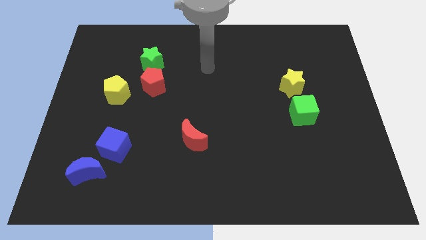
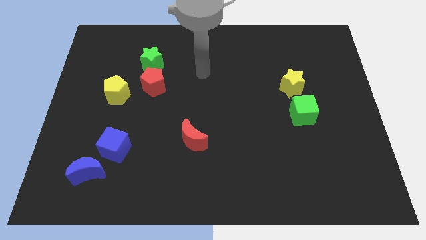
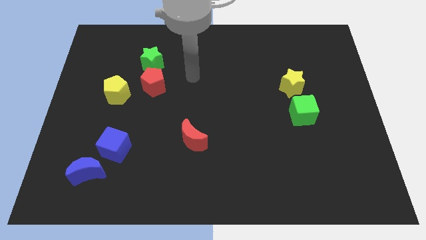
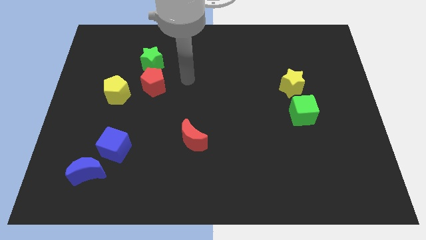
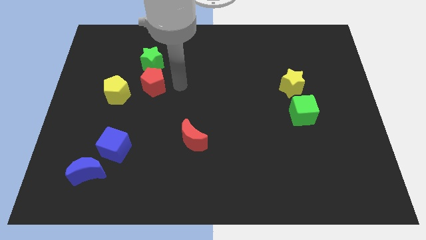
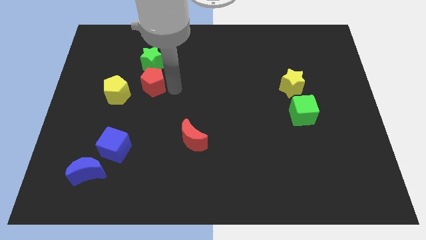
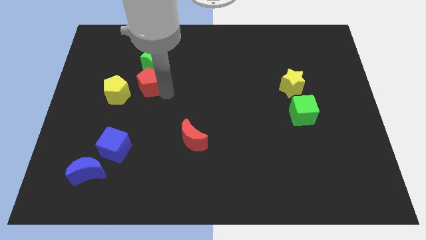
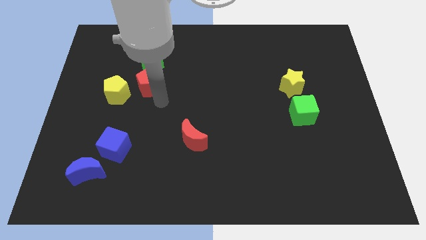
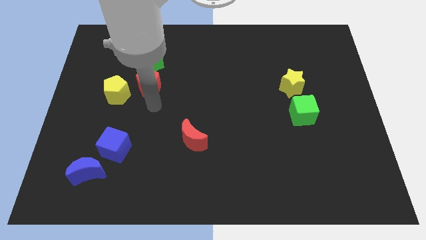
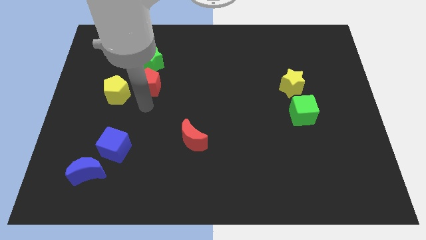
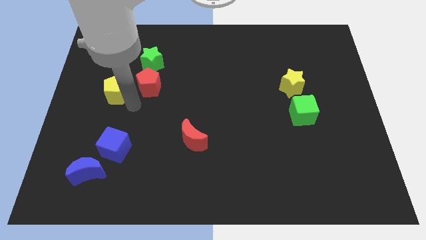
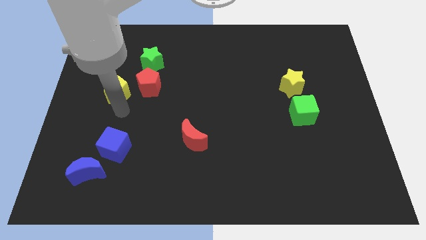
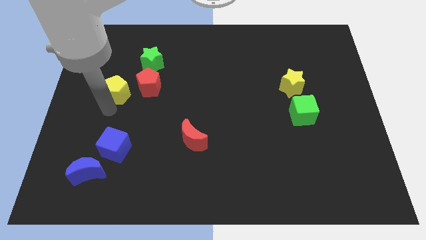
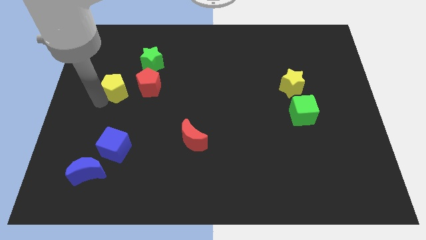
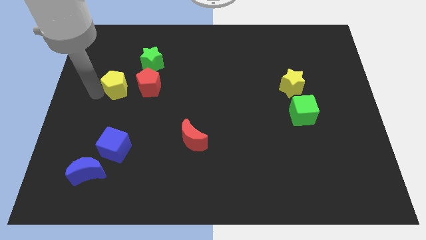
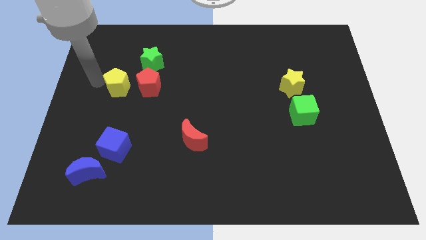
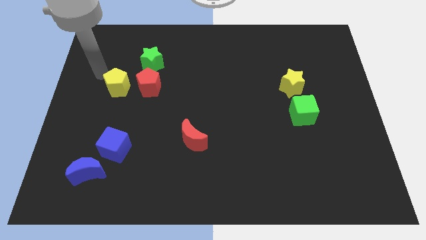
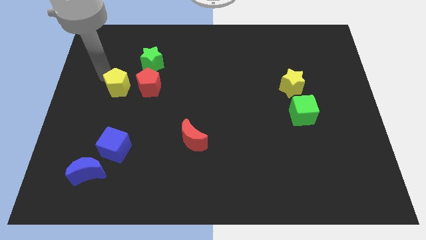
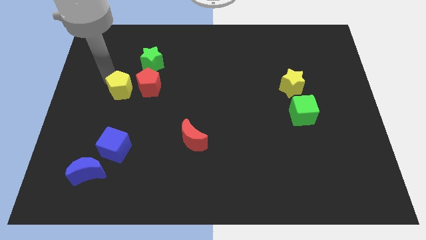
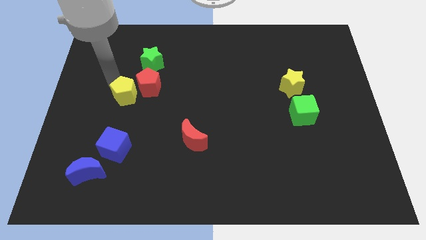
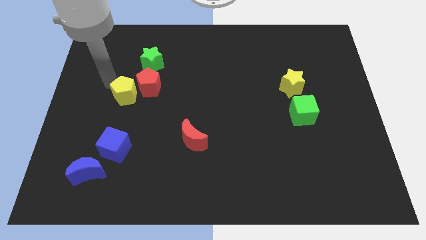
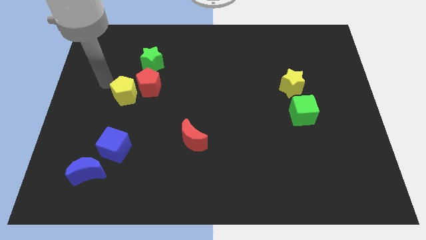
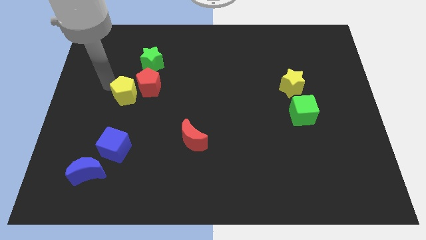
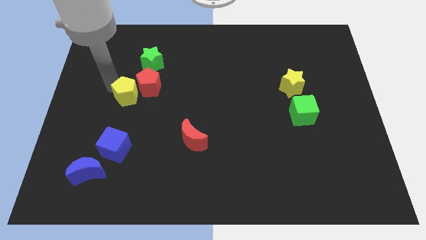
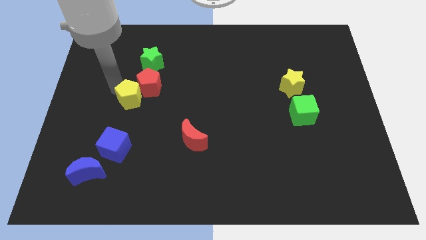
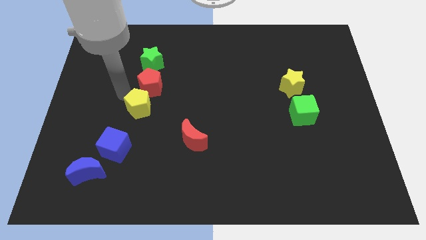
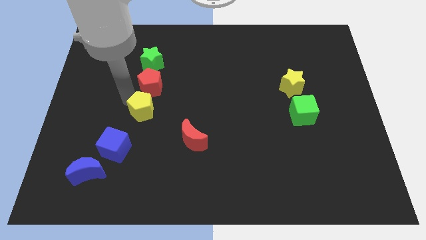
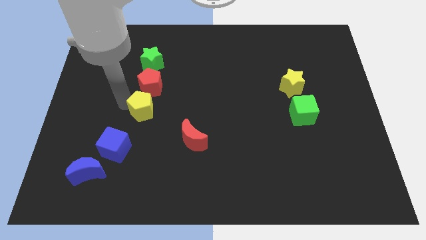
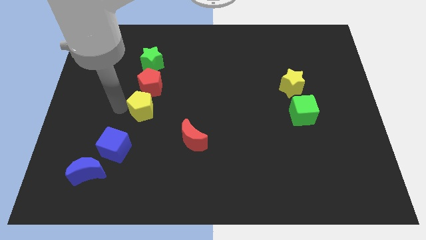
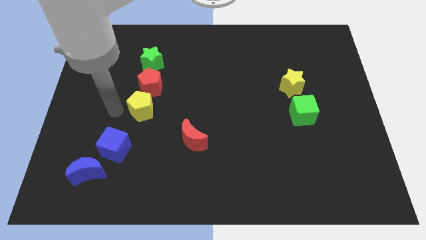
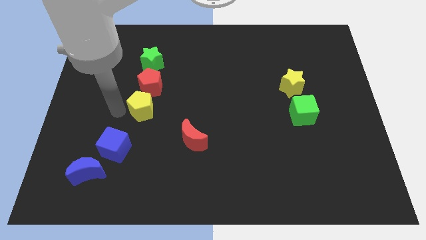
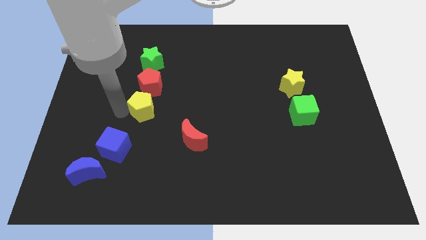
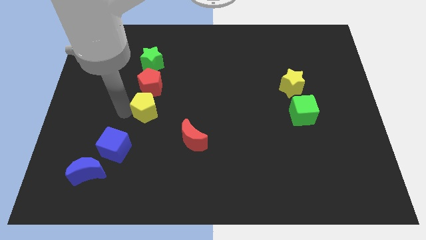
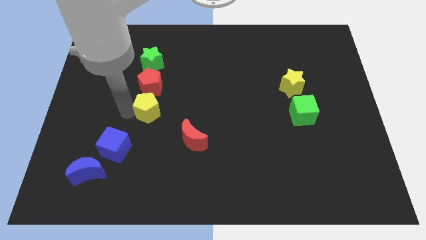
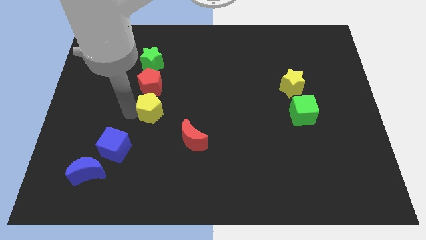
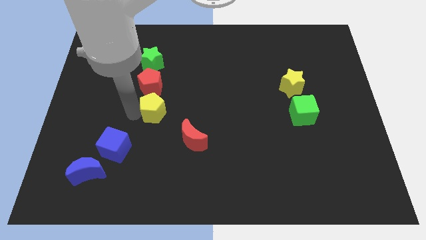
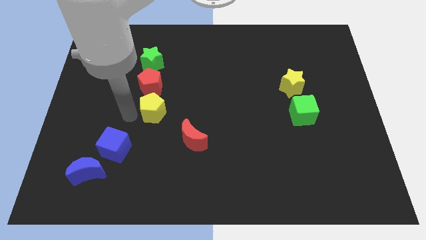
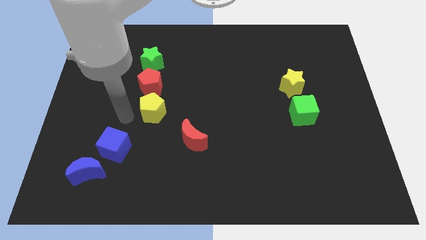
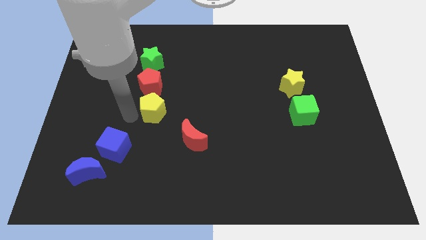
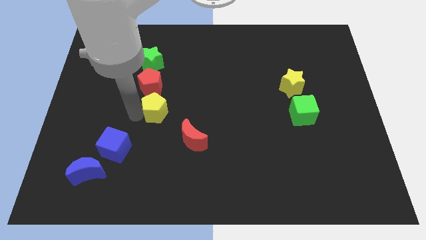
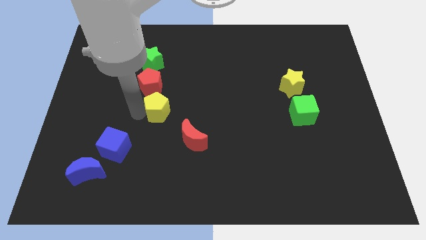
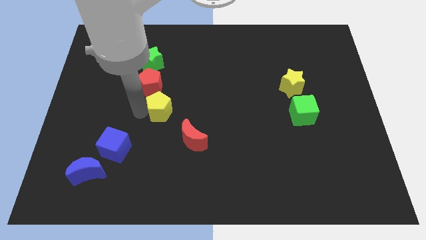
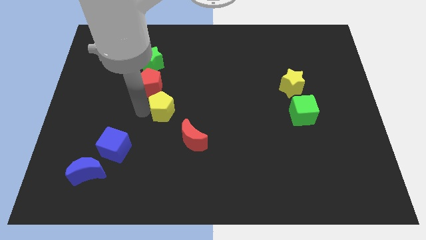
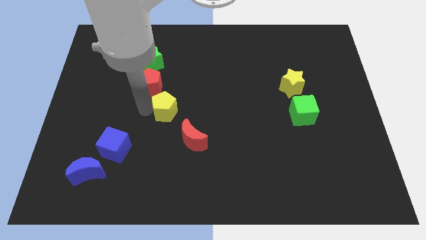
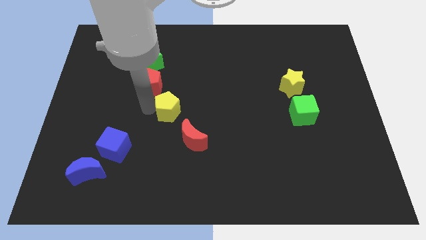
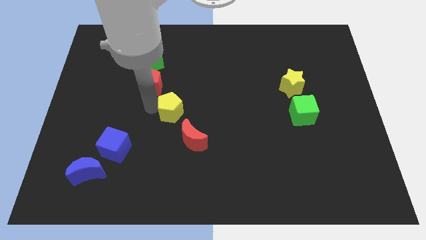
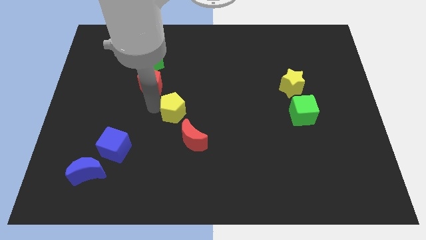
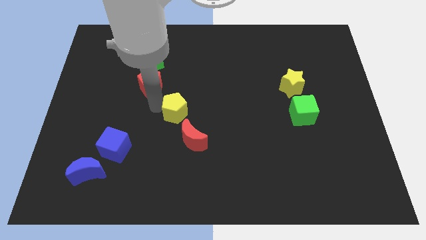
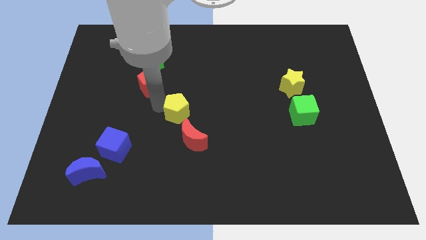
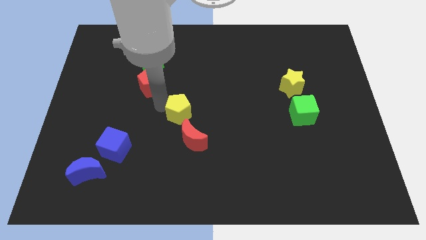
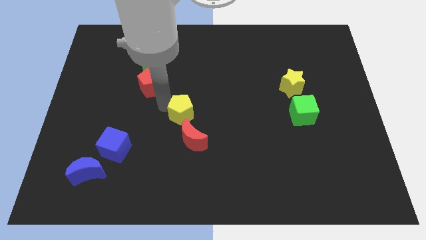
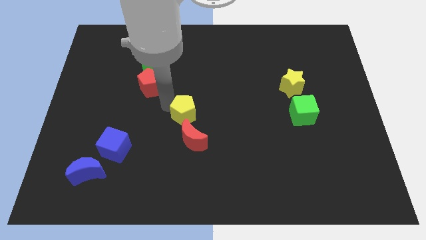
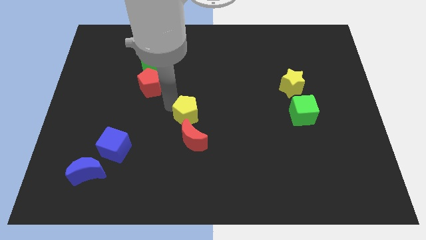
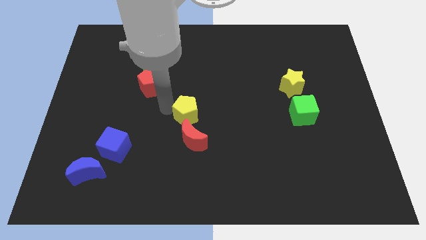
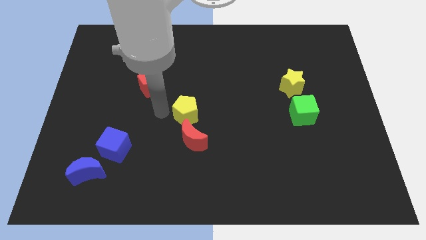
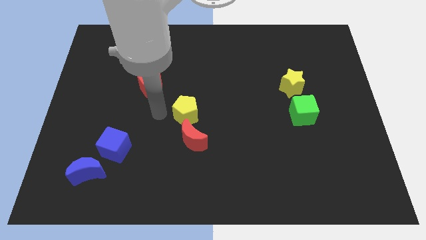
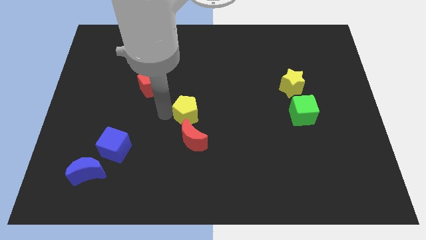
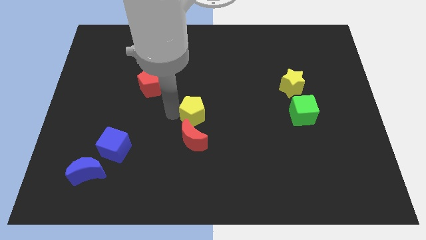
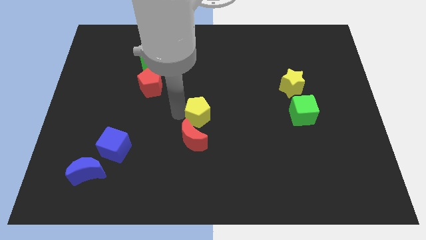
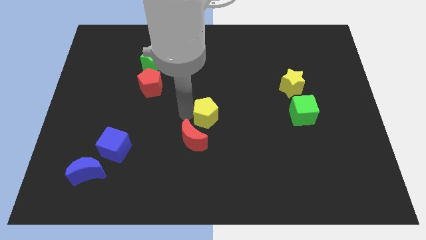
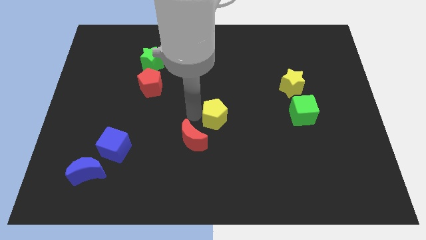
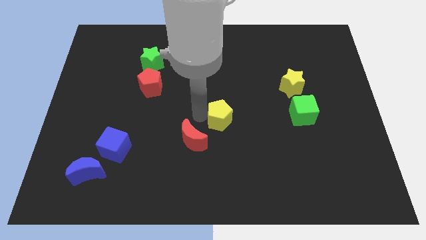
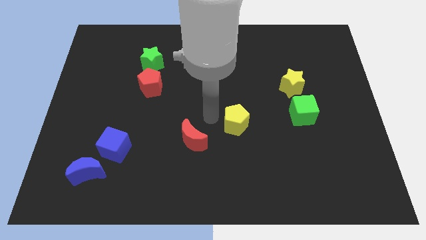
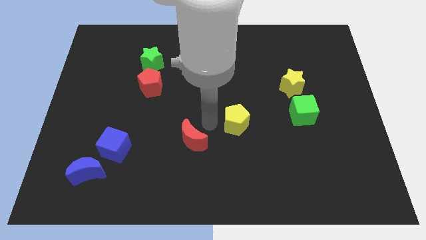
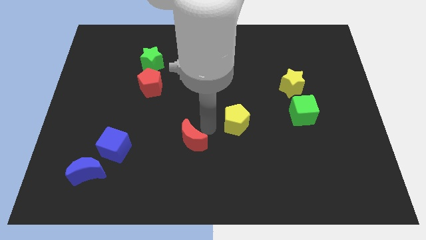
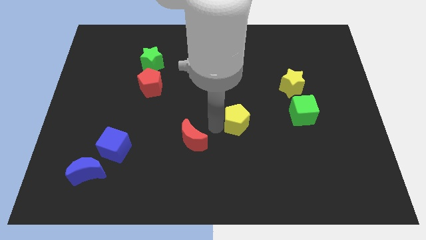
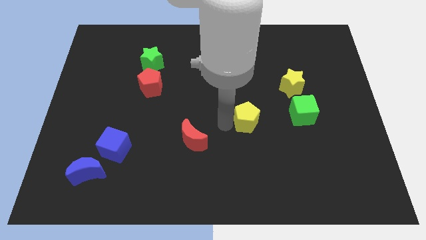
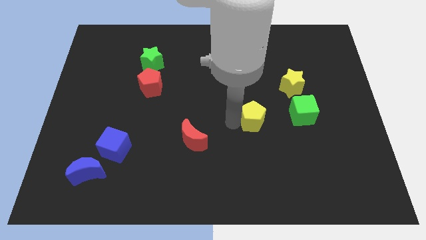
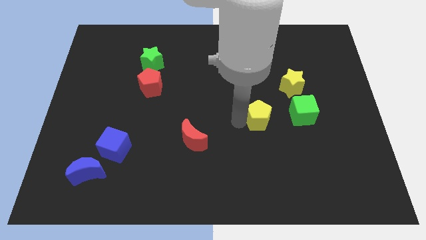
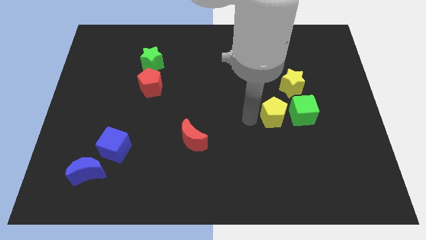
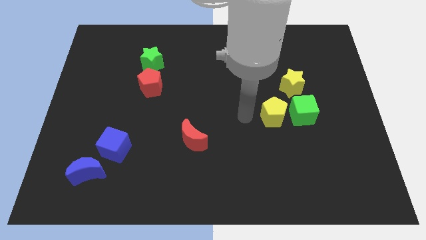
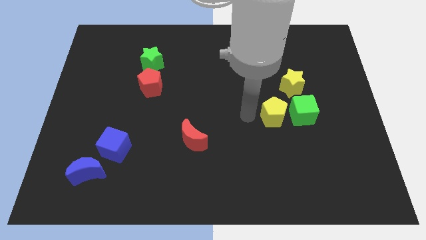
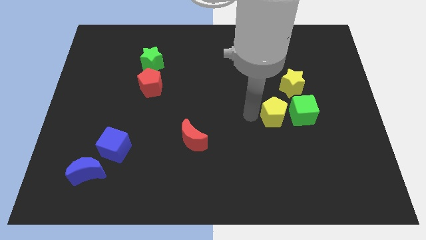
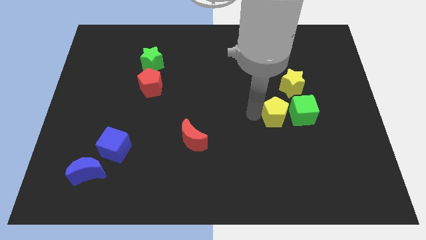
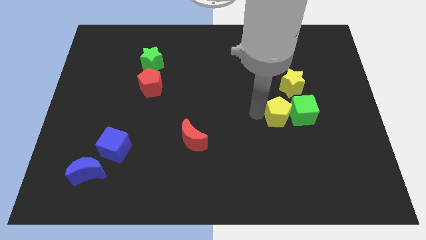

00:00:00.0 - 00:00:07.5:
move the yellow pentagon towards the green cube

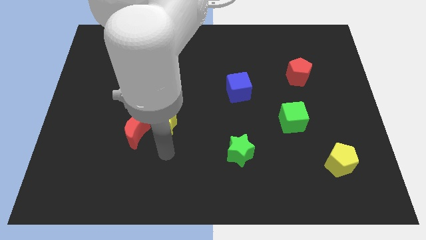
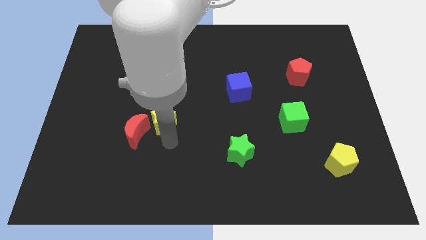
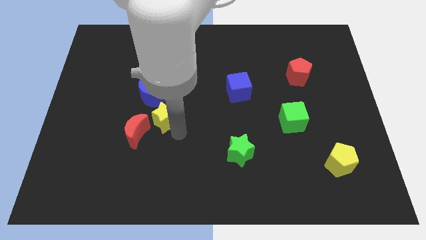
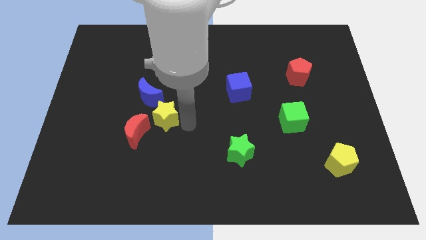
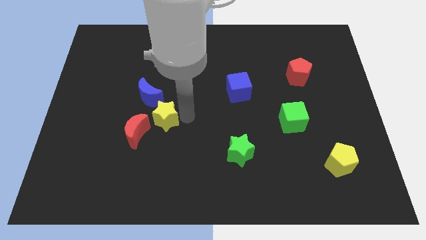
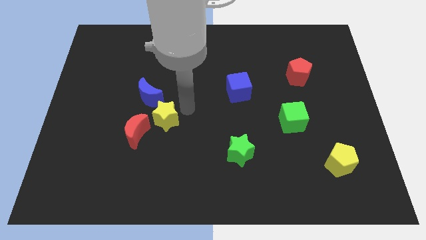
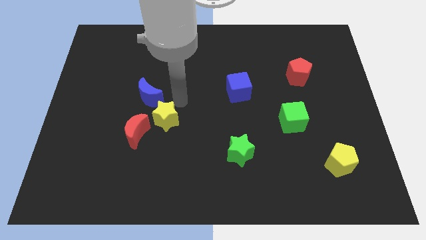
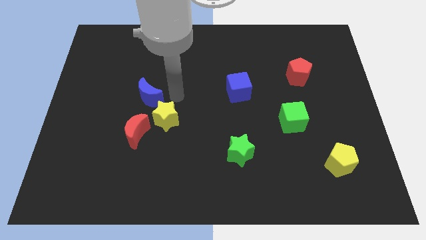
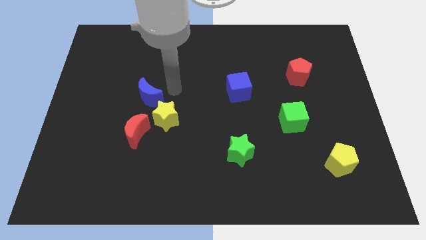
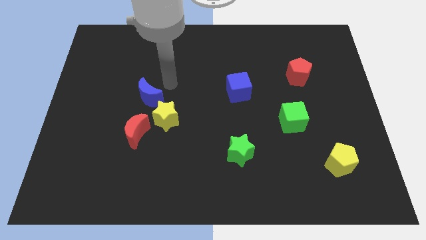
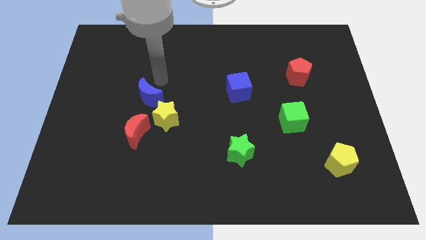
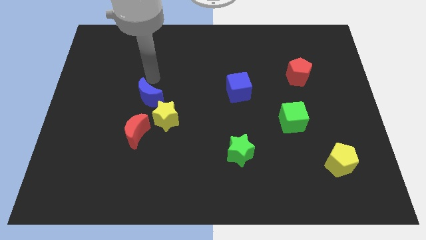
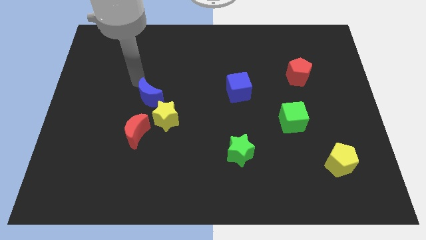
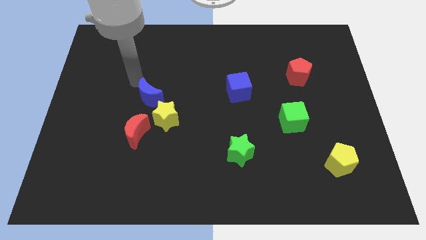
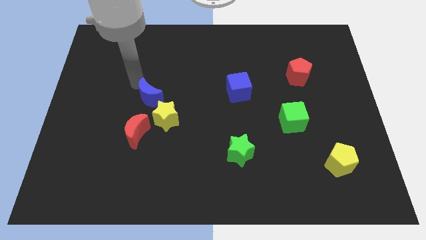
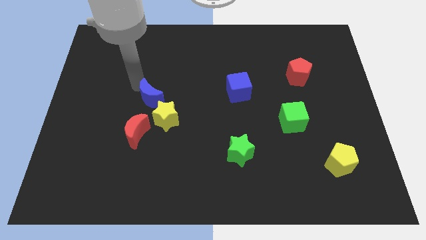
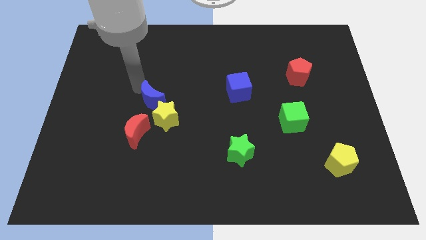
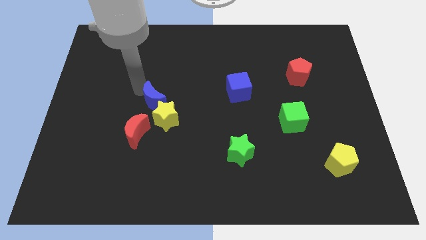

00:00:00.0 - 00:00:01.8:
slide the blue moon next to the yellow star
